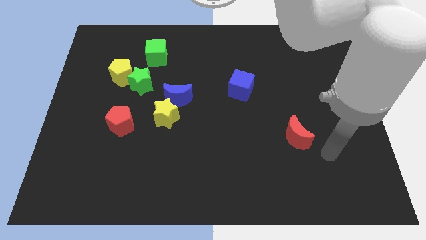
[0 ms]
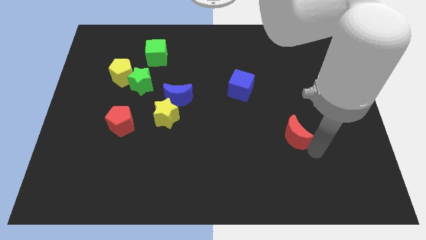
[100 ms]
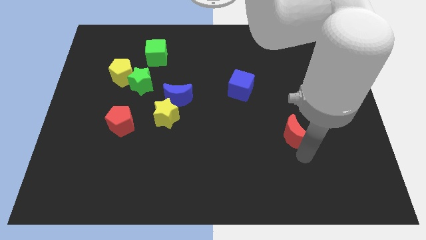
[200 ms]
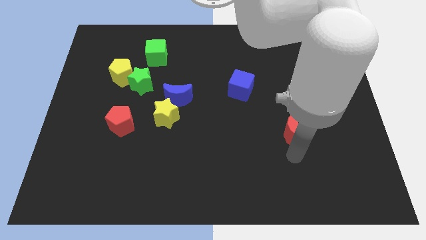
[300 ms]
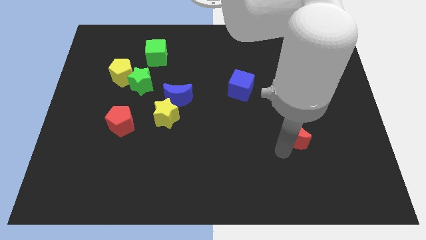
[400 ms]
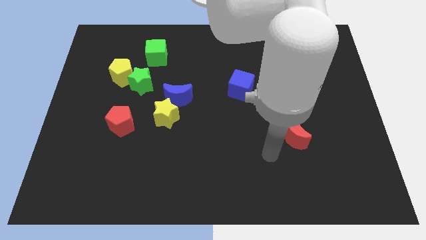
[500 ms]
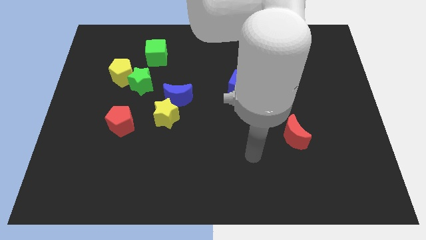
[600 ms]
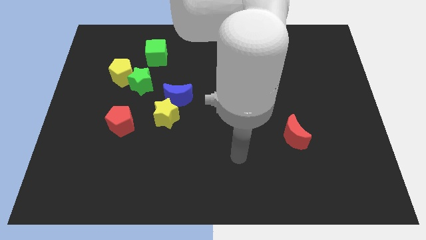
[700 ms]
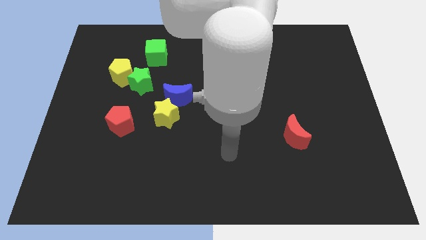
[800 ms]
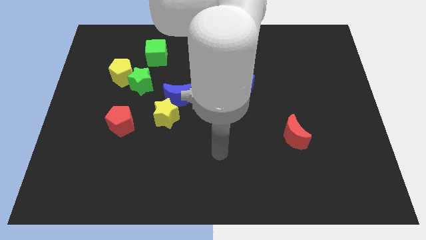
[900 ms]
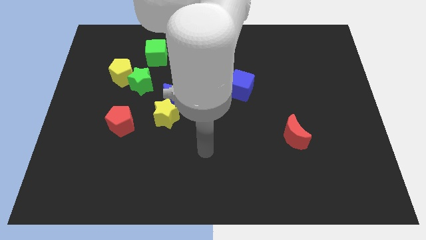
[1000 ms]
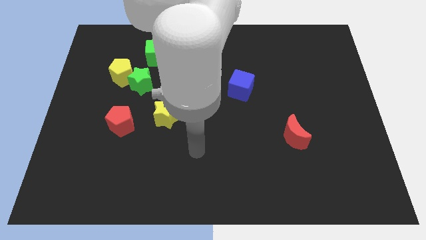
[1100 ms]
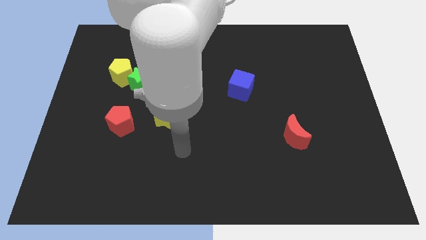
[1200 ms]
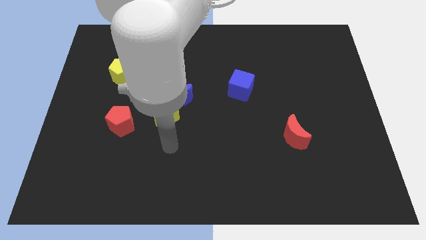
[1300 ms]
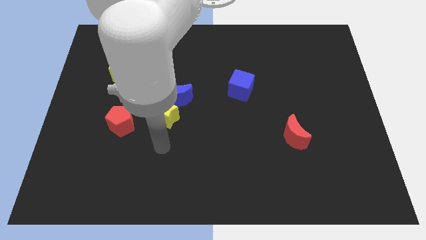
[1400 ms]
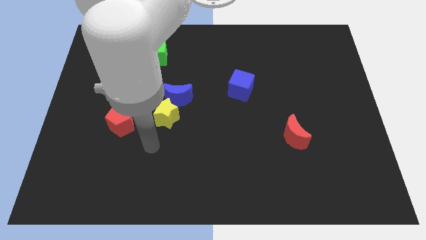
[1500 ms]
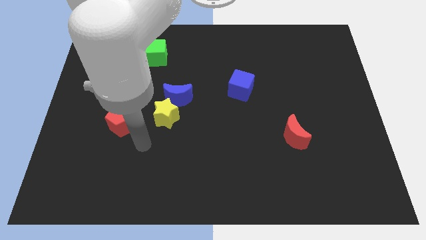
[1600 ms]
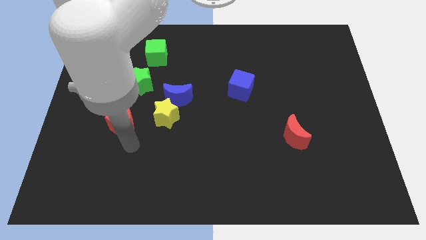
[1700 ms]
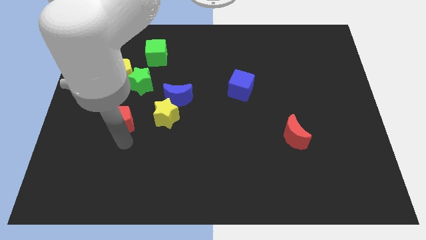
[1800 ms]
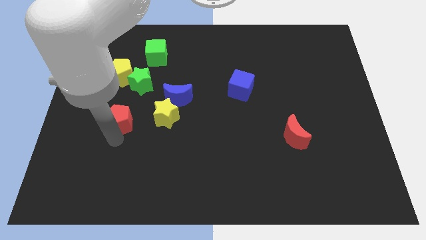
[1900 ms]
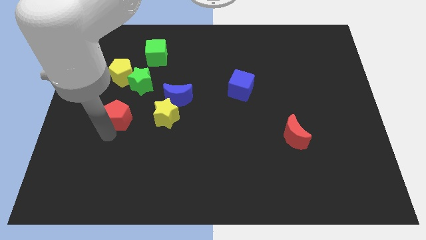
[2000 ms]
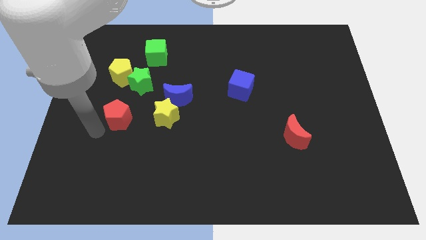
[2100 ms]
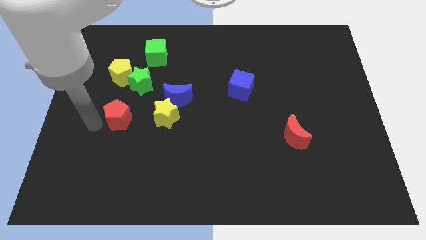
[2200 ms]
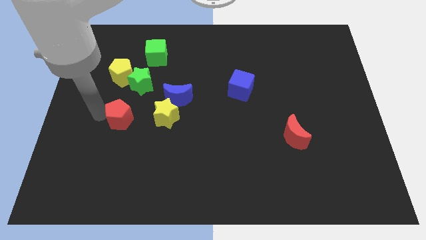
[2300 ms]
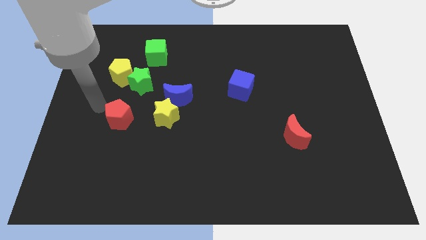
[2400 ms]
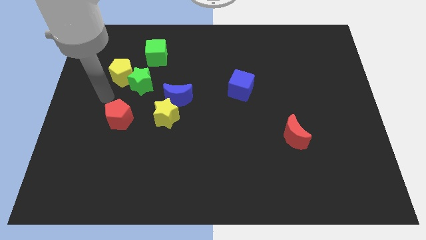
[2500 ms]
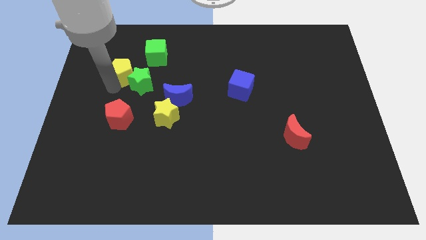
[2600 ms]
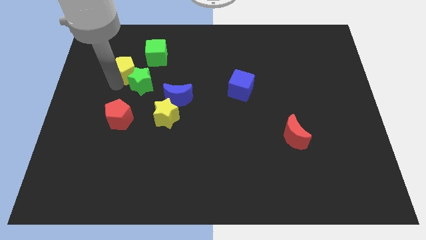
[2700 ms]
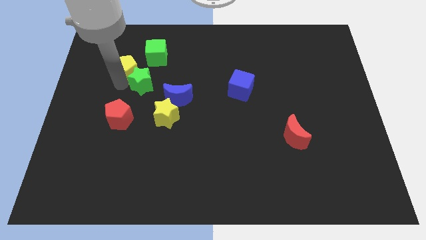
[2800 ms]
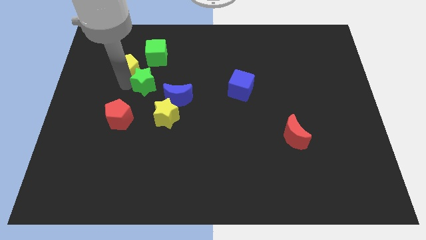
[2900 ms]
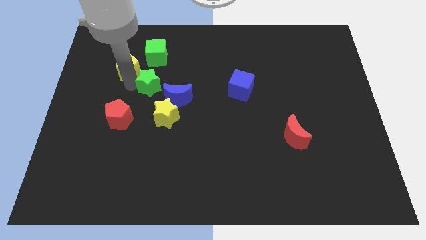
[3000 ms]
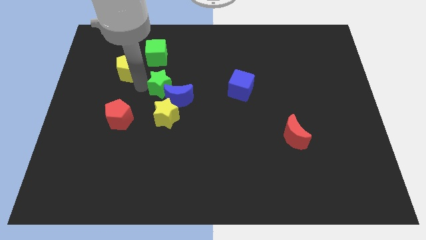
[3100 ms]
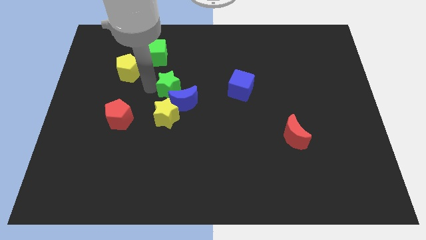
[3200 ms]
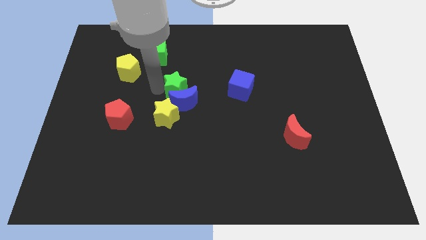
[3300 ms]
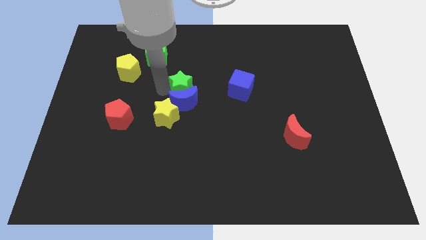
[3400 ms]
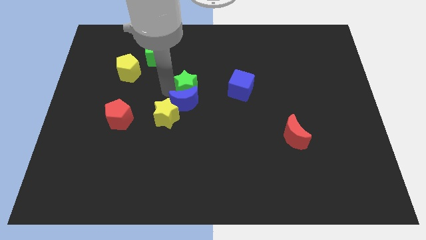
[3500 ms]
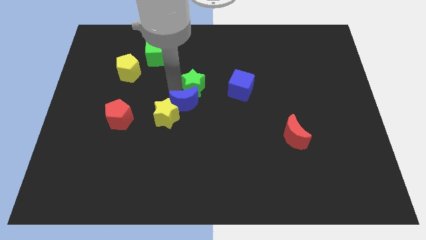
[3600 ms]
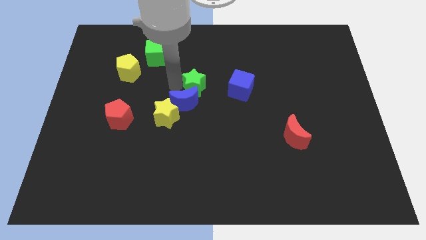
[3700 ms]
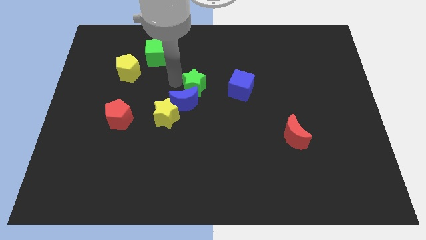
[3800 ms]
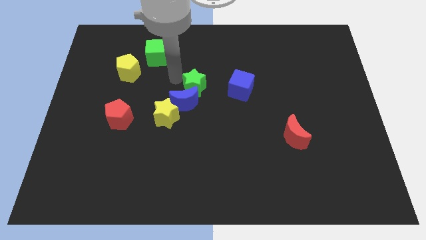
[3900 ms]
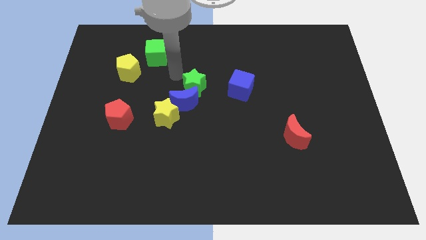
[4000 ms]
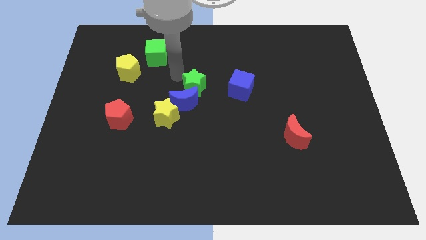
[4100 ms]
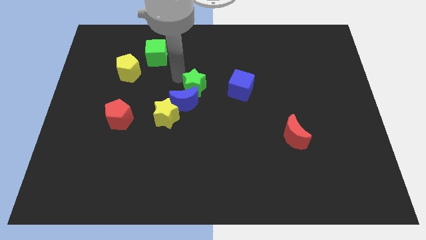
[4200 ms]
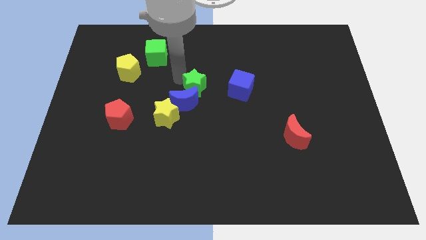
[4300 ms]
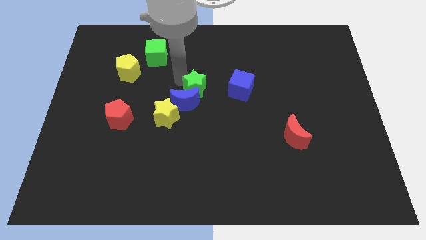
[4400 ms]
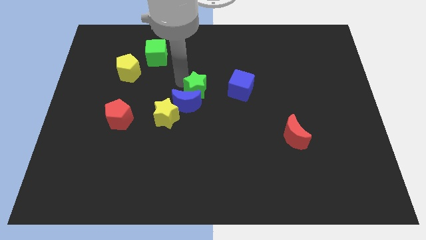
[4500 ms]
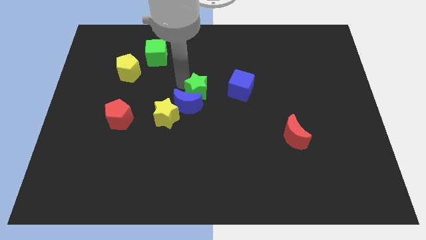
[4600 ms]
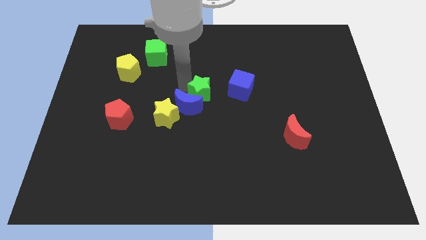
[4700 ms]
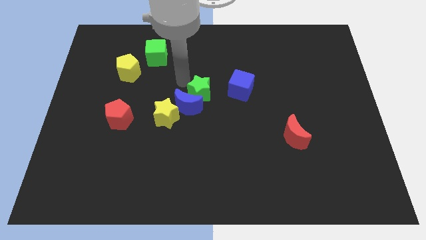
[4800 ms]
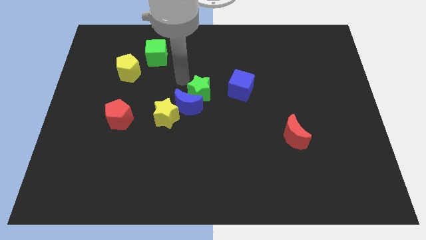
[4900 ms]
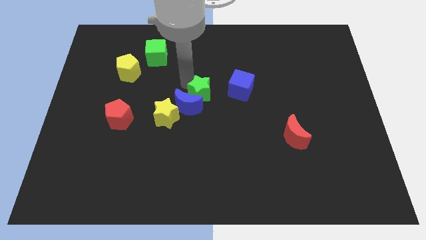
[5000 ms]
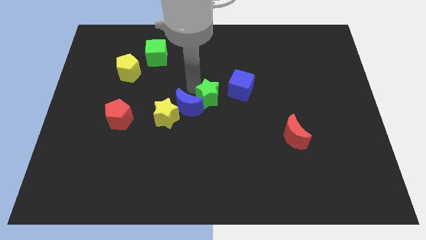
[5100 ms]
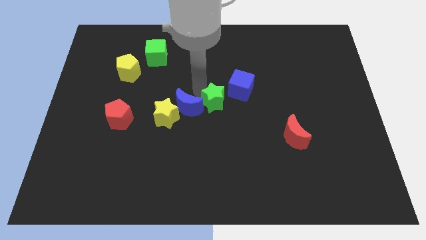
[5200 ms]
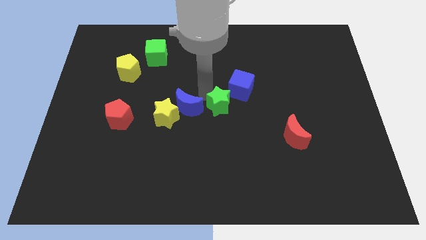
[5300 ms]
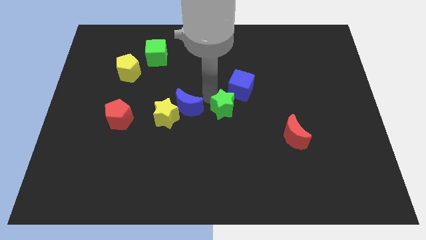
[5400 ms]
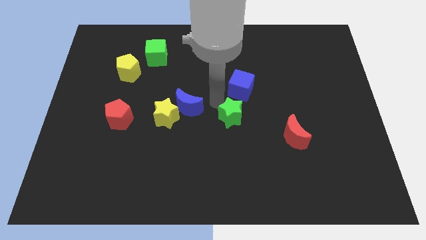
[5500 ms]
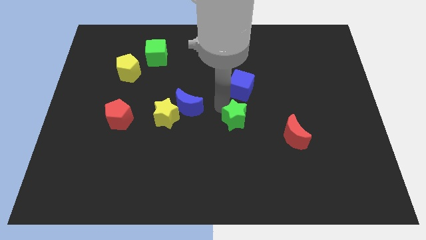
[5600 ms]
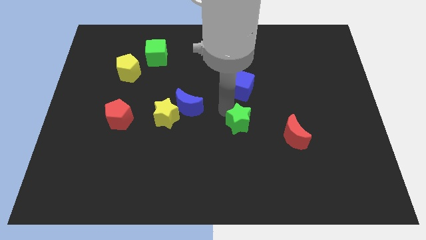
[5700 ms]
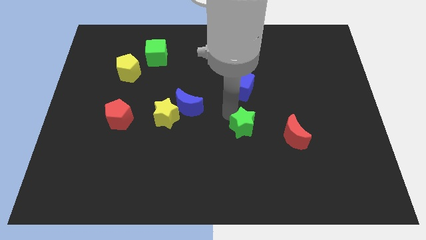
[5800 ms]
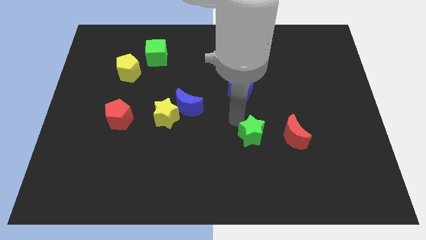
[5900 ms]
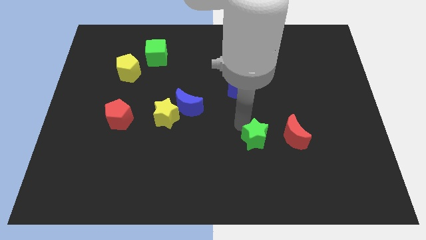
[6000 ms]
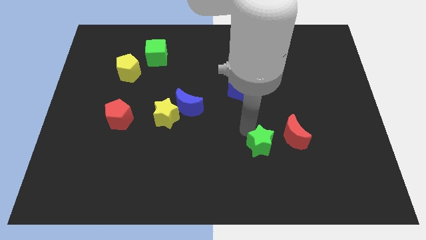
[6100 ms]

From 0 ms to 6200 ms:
slide the green star to the bottom left of the red moon
